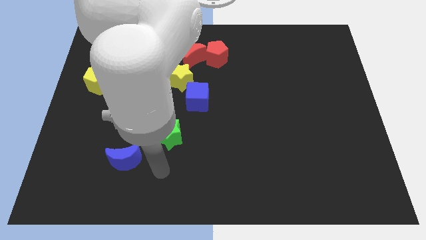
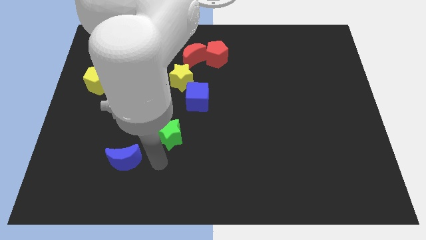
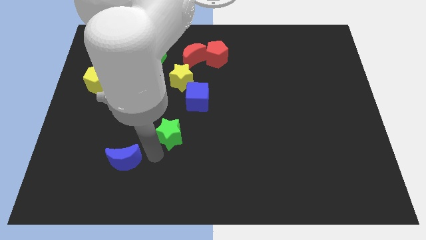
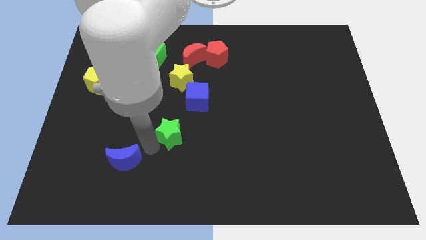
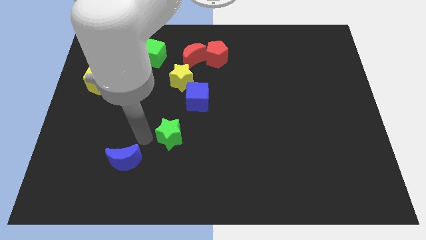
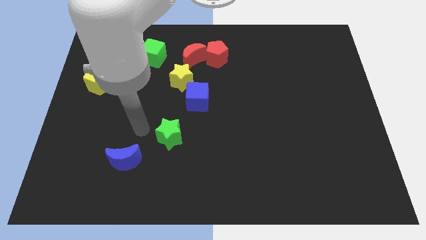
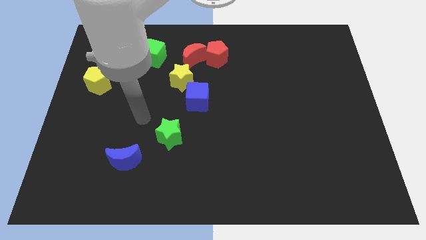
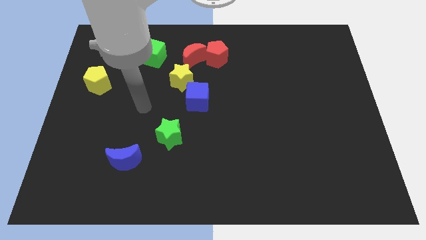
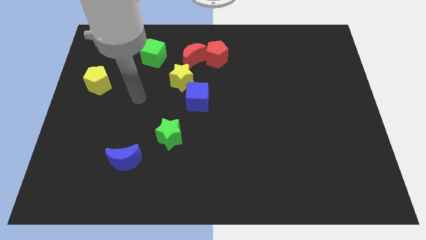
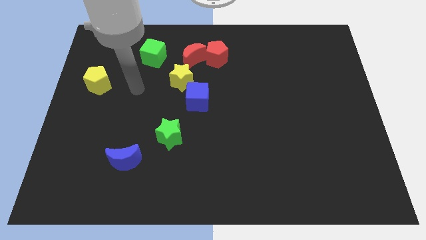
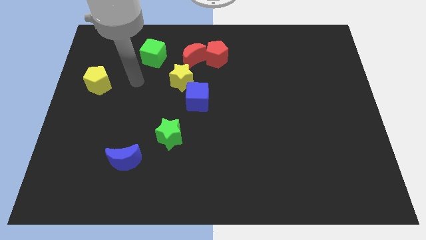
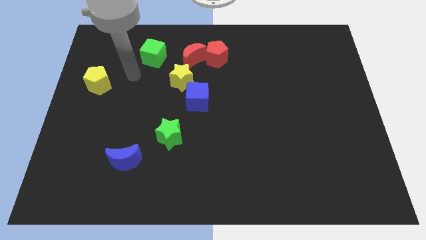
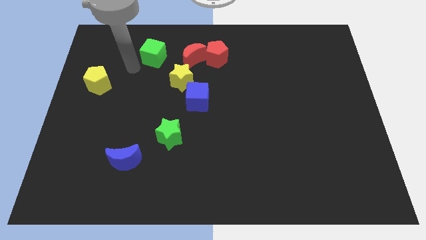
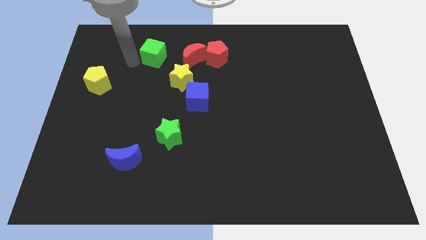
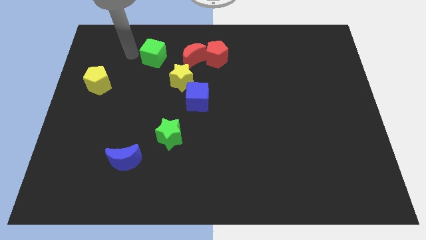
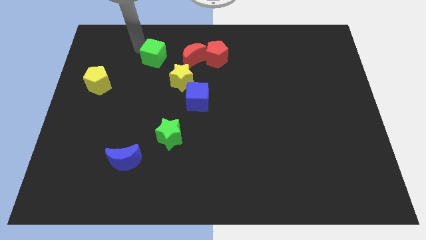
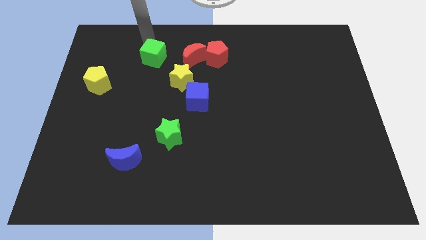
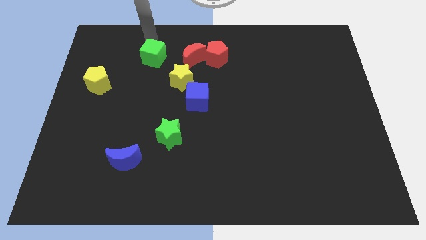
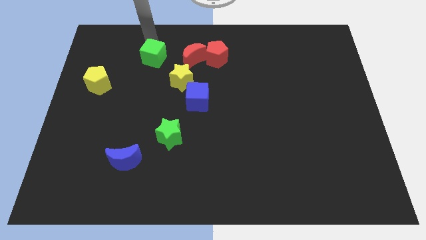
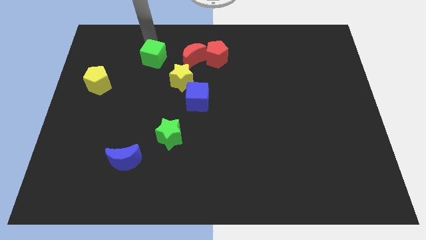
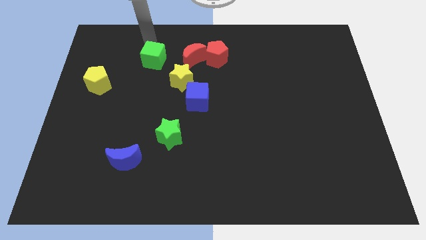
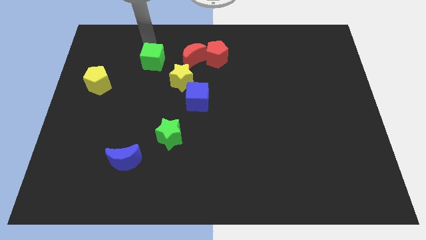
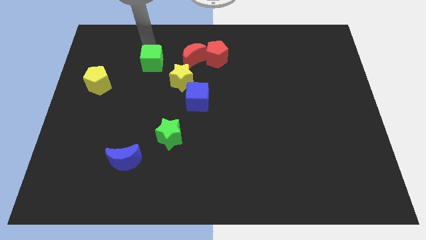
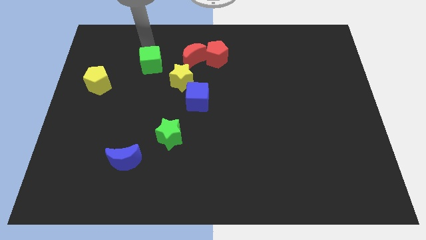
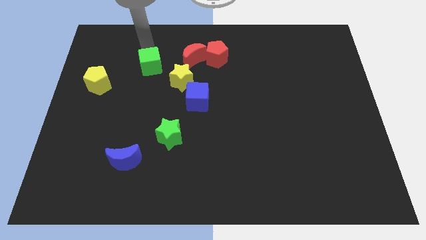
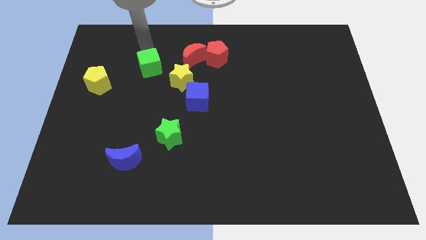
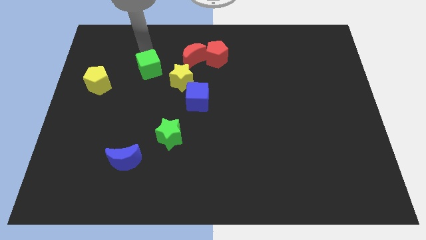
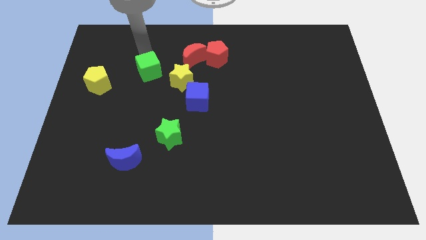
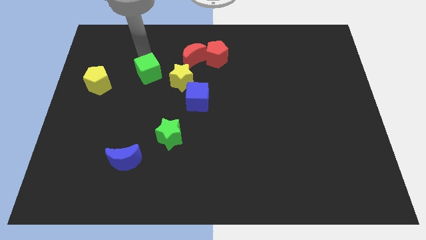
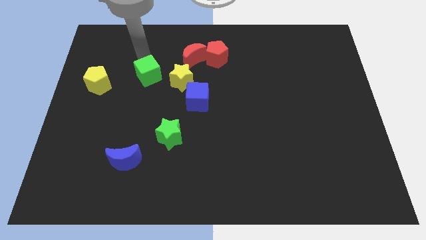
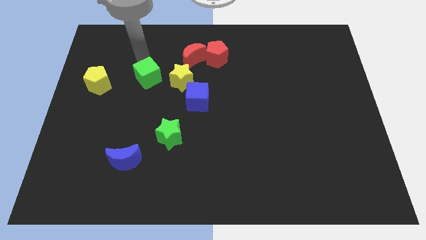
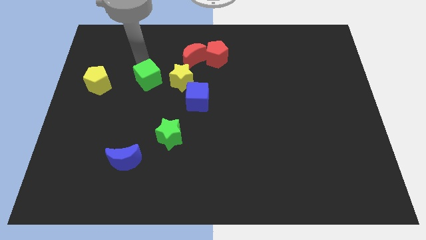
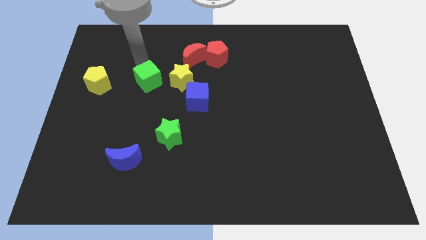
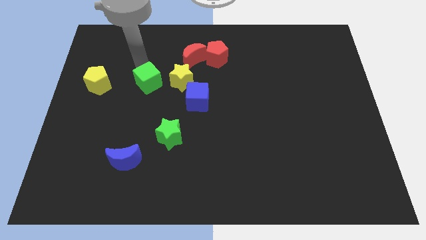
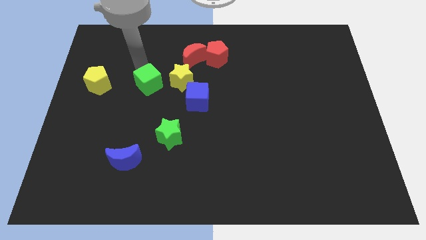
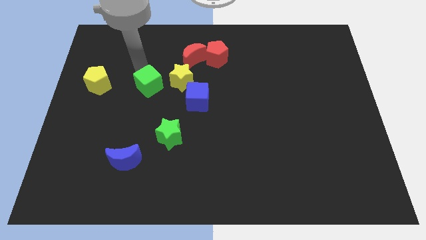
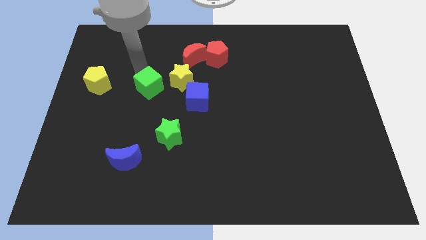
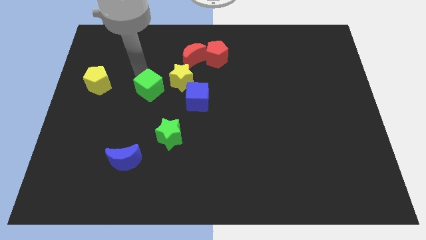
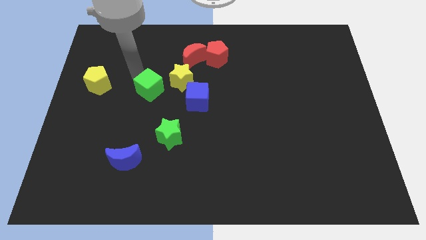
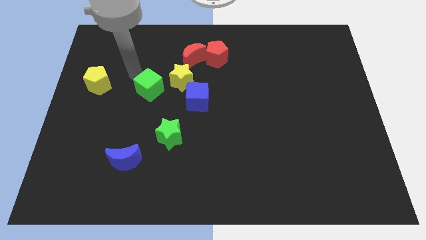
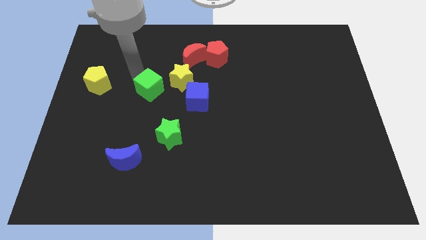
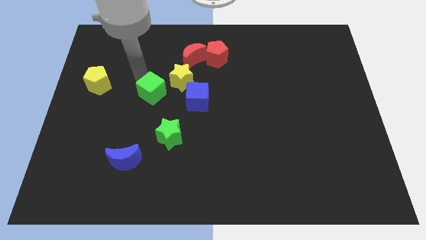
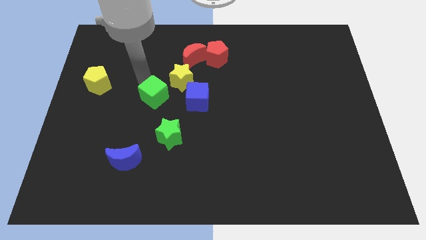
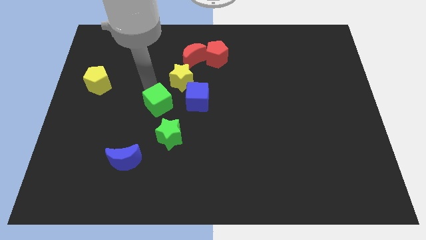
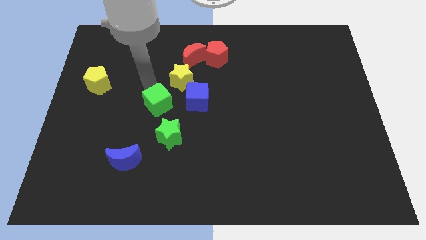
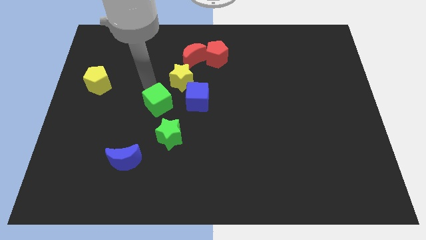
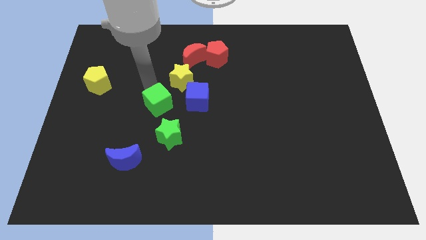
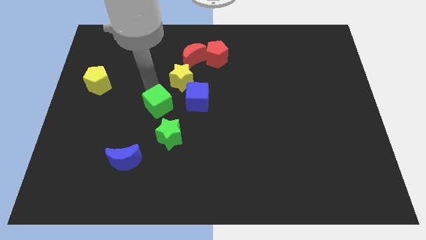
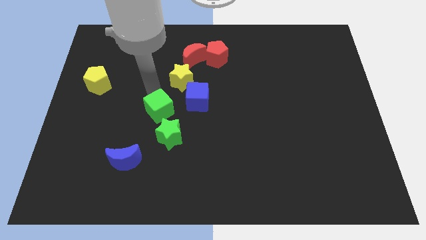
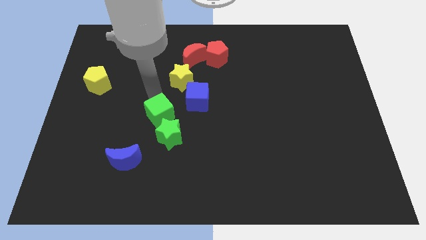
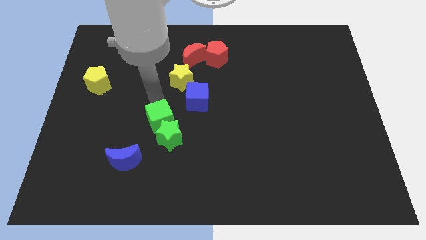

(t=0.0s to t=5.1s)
move the green cube to the green star

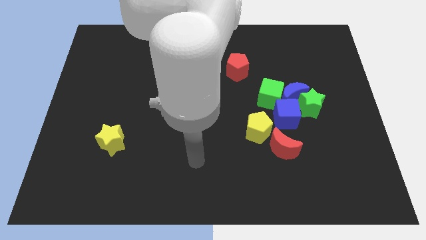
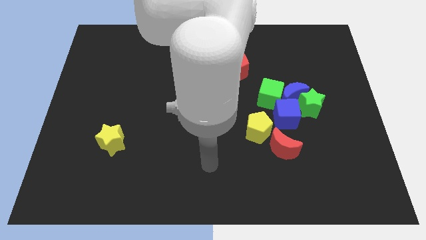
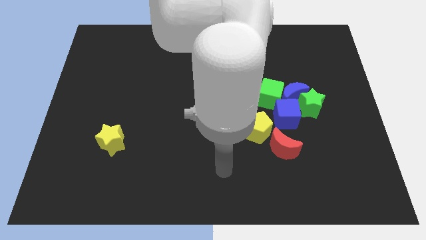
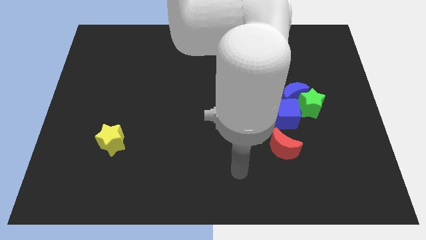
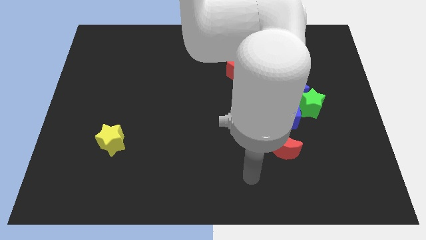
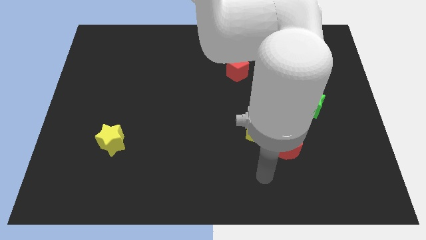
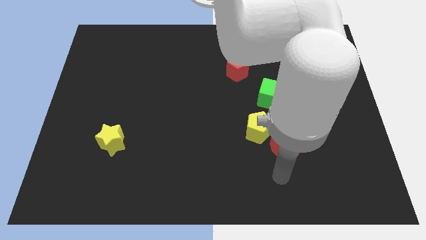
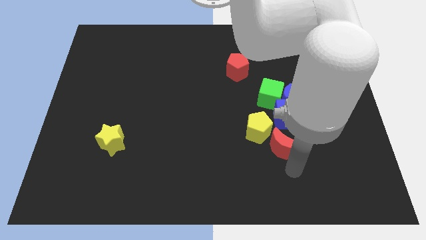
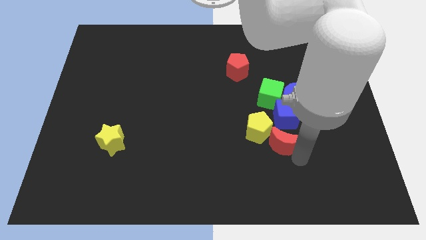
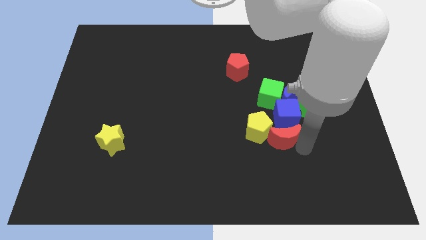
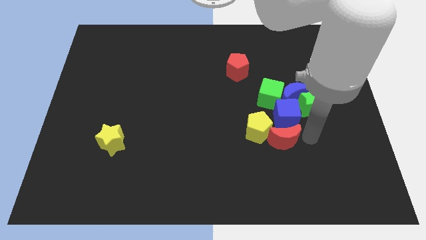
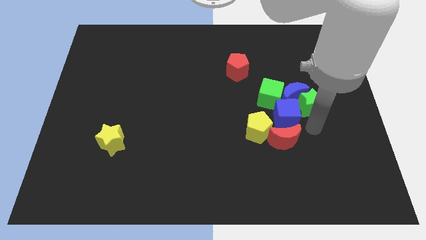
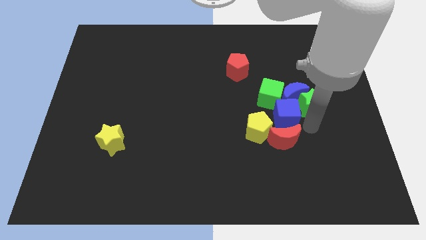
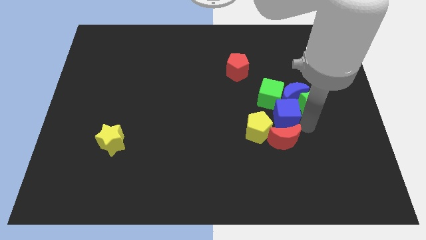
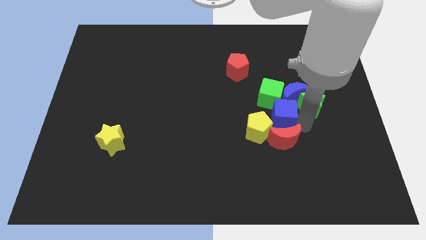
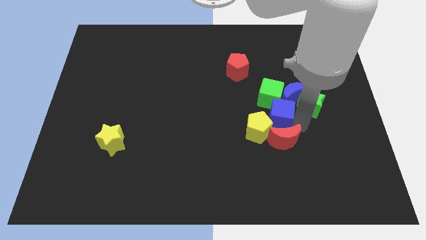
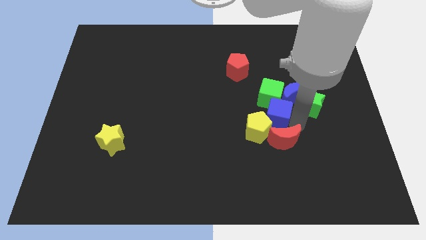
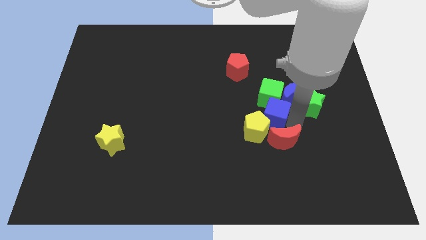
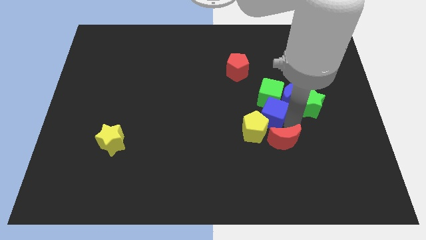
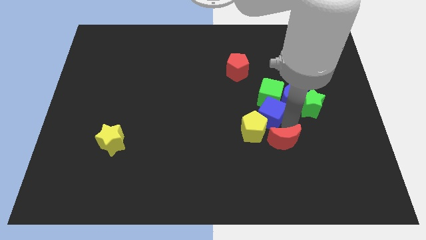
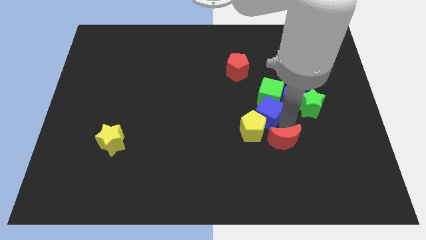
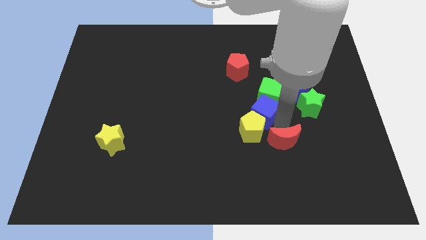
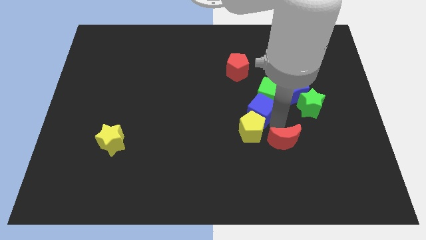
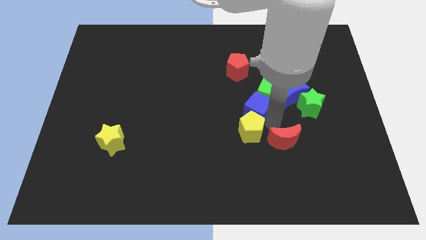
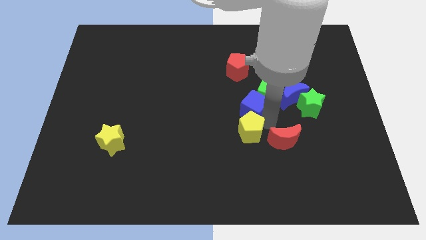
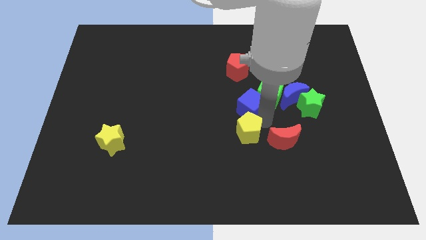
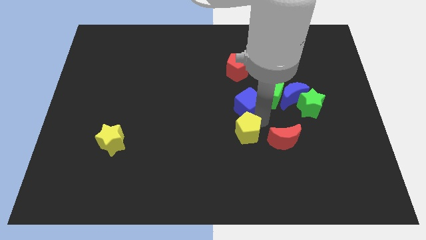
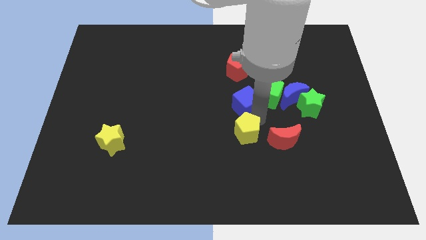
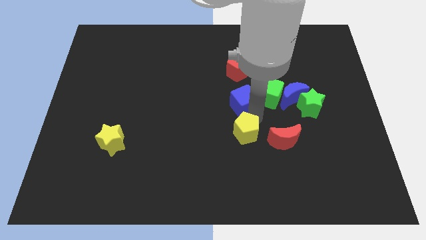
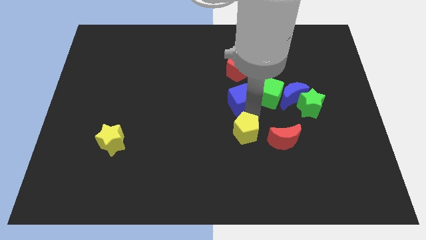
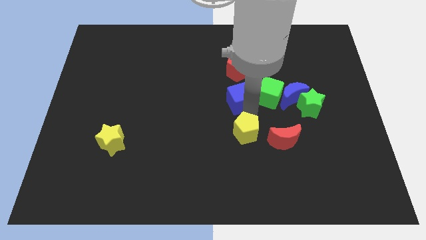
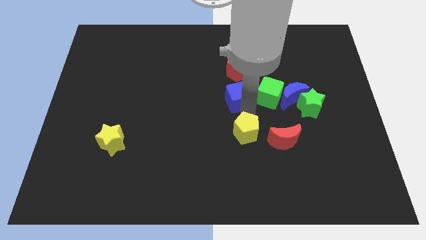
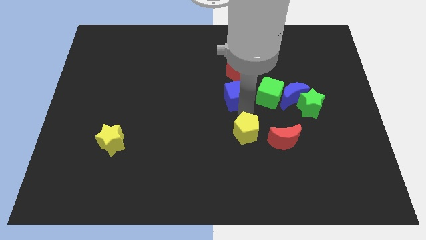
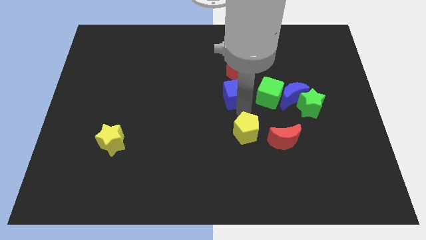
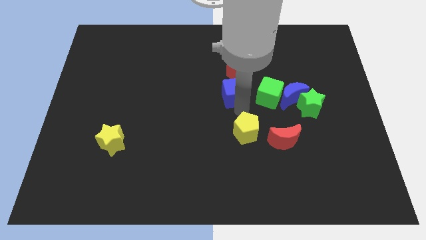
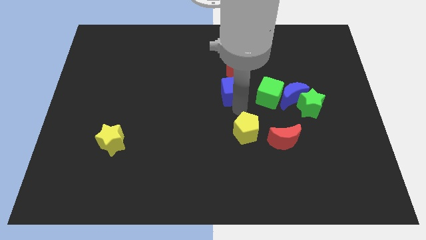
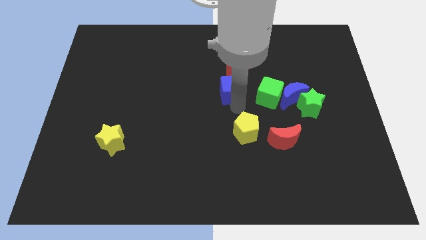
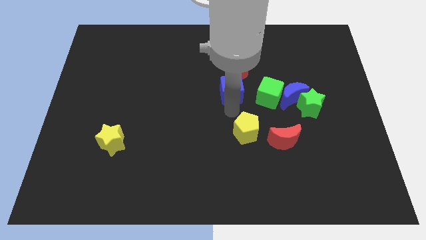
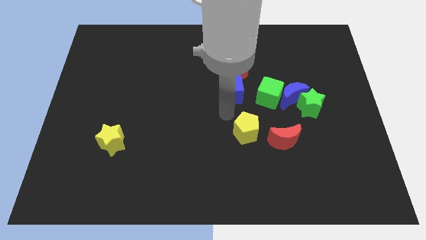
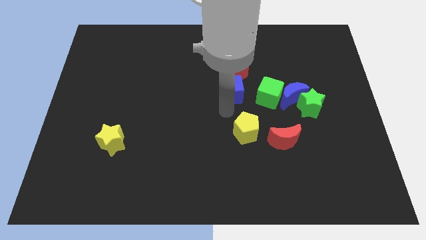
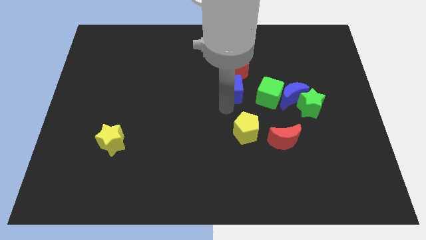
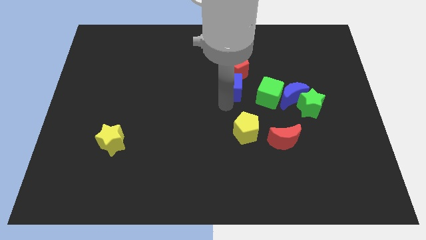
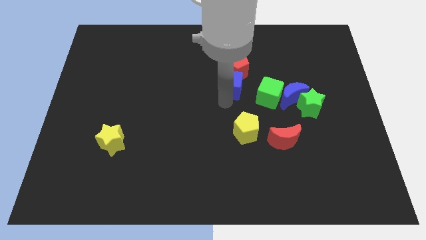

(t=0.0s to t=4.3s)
slide the blue cube towards the red pentagon
